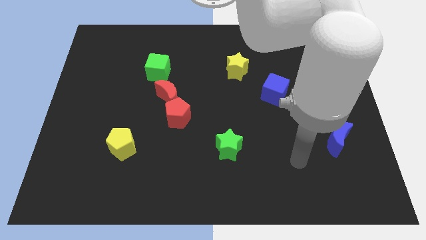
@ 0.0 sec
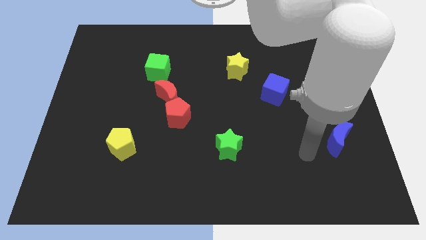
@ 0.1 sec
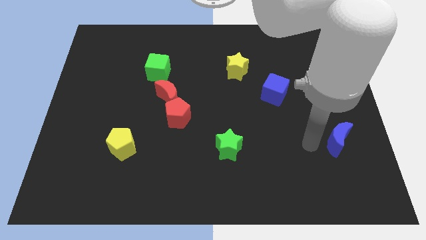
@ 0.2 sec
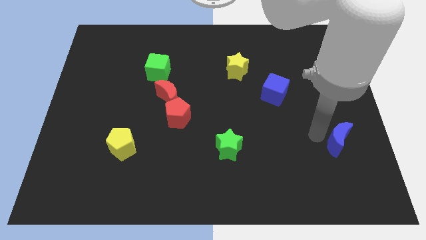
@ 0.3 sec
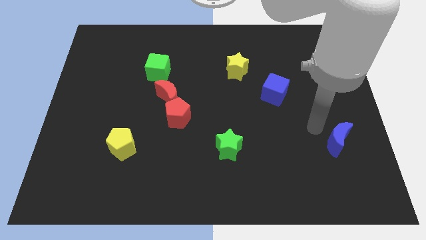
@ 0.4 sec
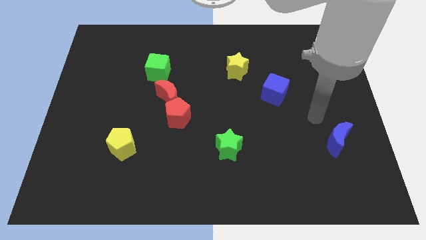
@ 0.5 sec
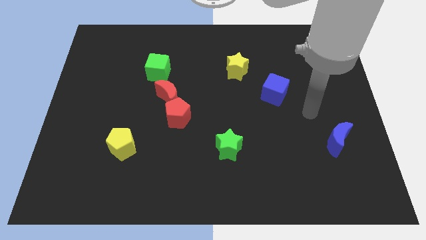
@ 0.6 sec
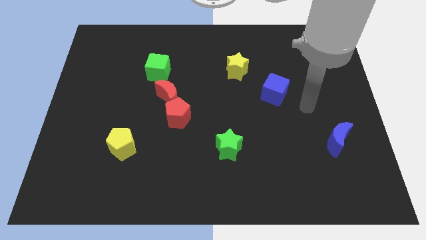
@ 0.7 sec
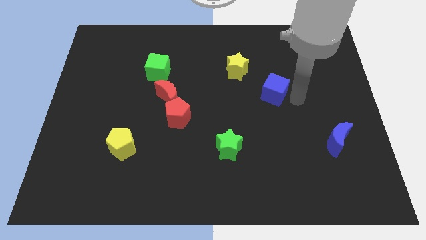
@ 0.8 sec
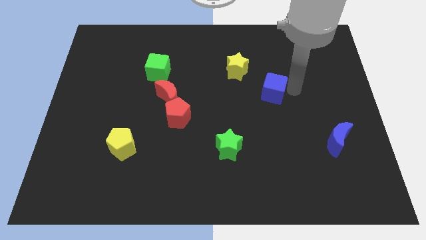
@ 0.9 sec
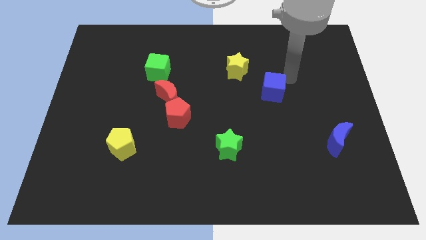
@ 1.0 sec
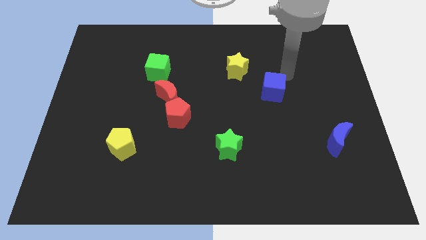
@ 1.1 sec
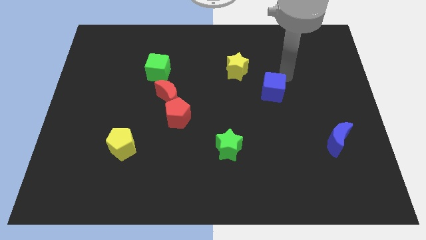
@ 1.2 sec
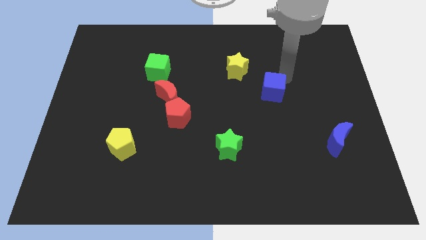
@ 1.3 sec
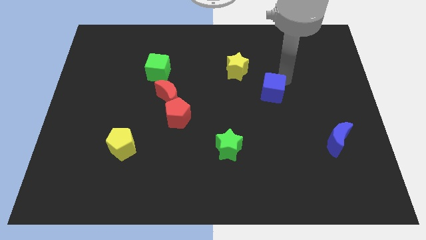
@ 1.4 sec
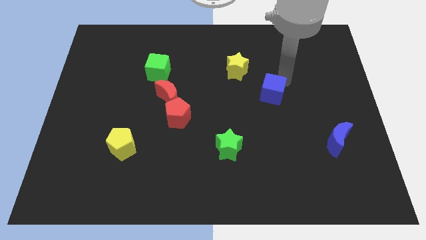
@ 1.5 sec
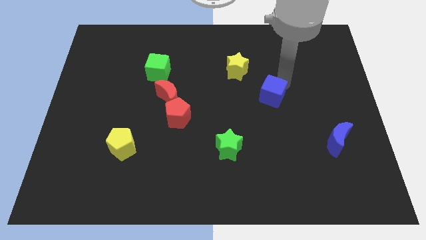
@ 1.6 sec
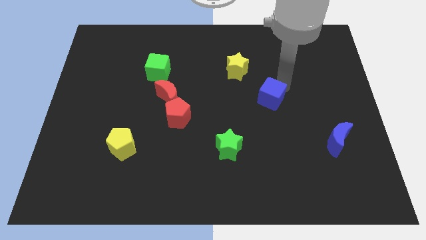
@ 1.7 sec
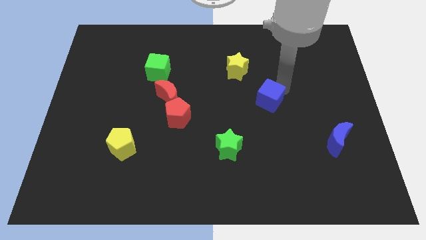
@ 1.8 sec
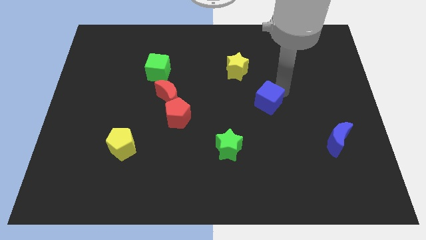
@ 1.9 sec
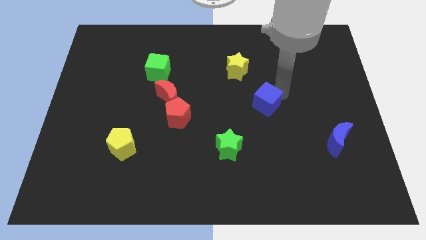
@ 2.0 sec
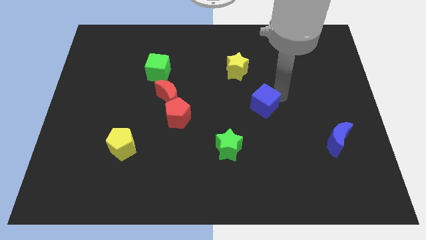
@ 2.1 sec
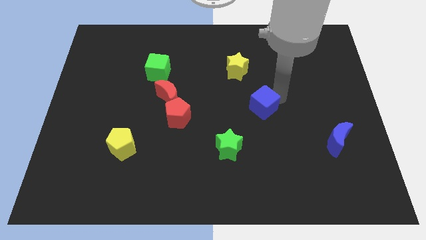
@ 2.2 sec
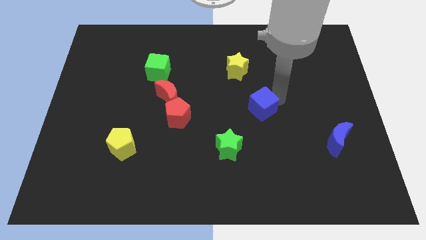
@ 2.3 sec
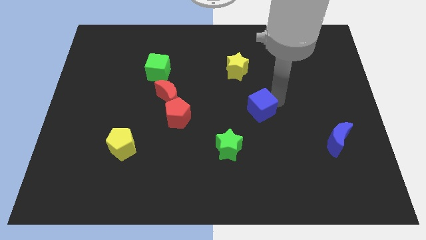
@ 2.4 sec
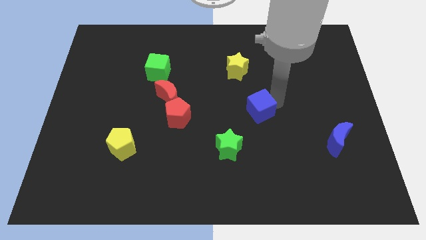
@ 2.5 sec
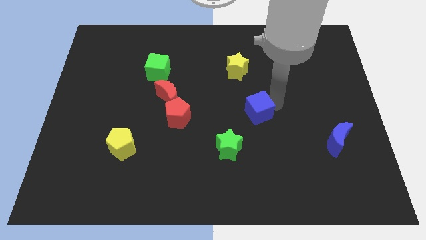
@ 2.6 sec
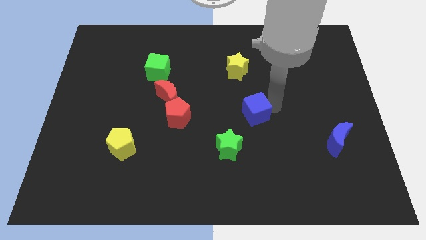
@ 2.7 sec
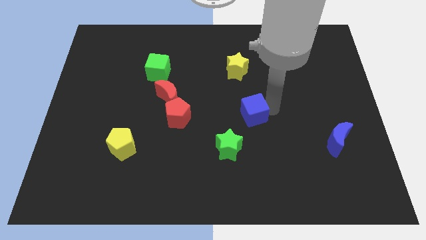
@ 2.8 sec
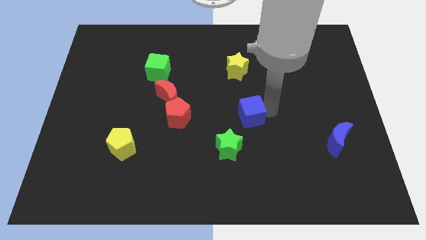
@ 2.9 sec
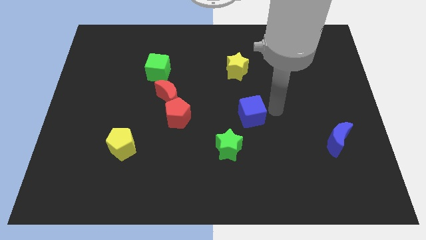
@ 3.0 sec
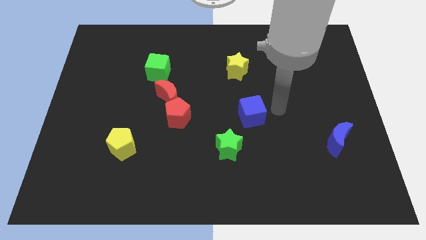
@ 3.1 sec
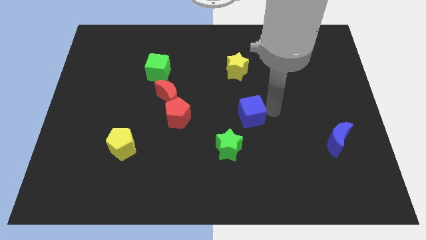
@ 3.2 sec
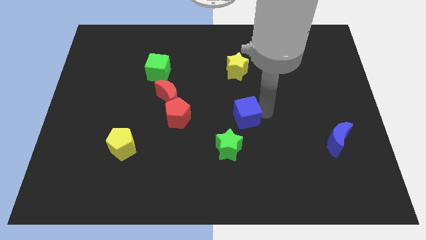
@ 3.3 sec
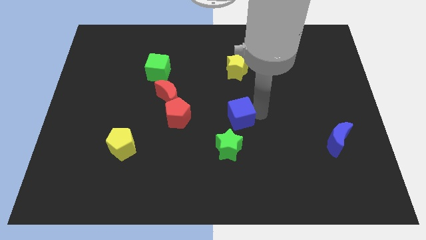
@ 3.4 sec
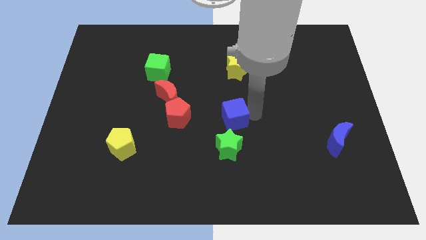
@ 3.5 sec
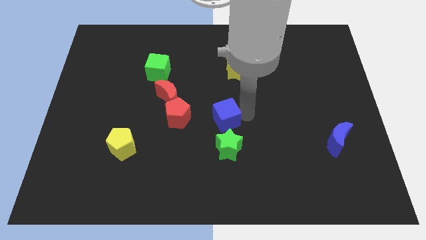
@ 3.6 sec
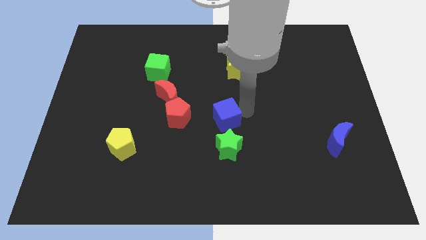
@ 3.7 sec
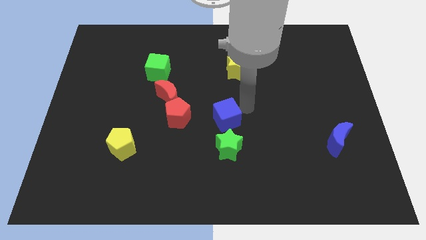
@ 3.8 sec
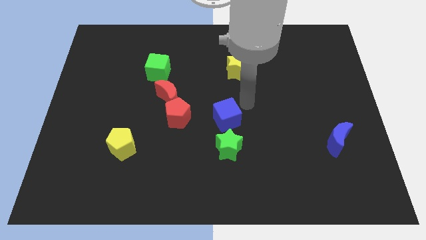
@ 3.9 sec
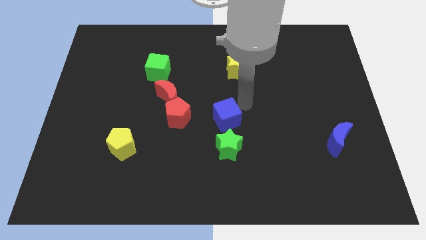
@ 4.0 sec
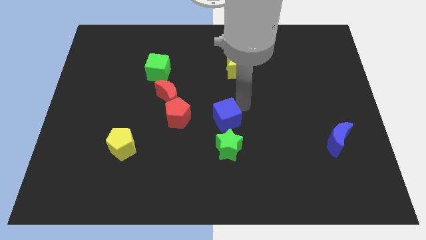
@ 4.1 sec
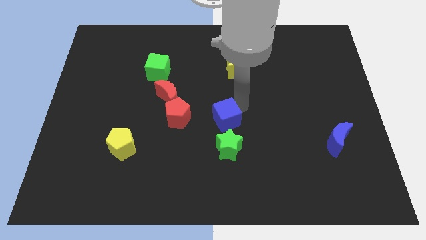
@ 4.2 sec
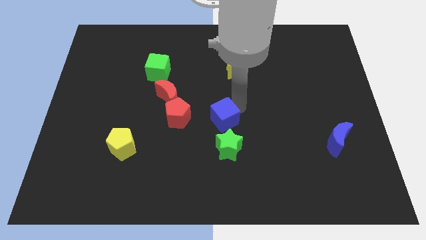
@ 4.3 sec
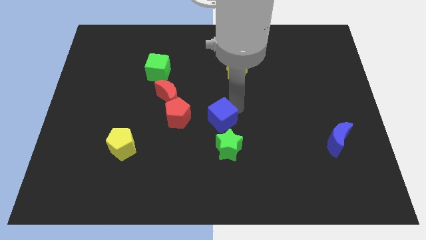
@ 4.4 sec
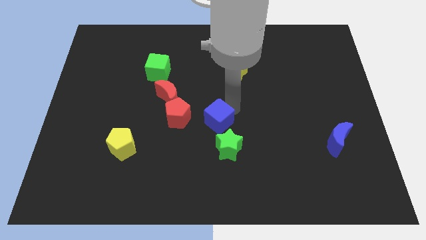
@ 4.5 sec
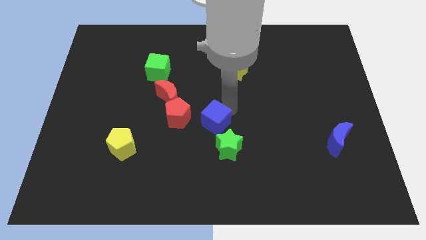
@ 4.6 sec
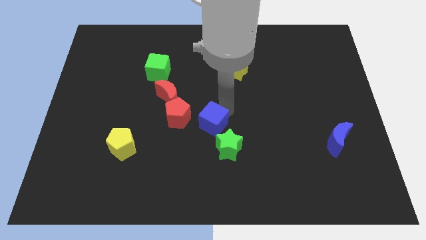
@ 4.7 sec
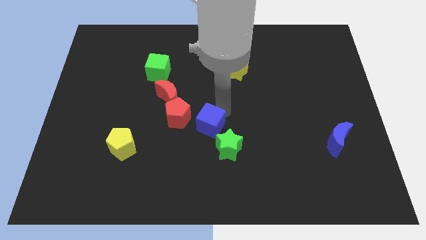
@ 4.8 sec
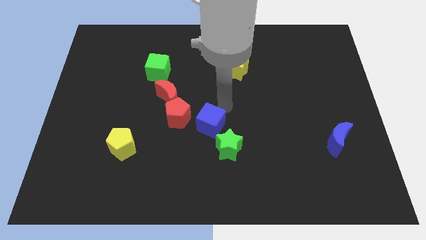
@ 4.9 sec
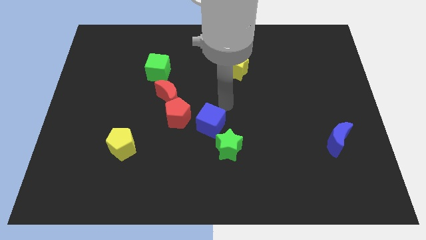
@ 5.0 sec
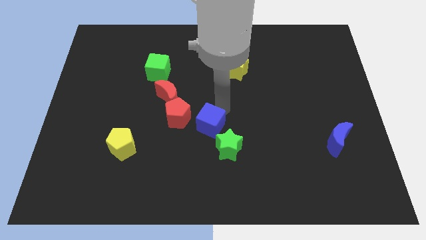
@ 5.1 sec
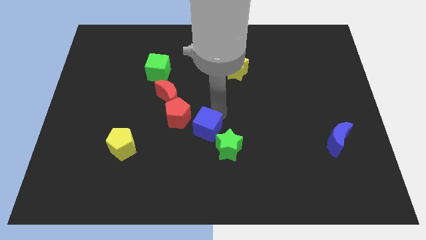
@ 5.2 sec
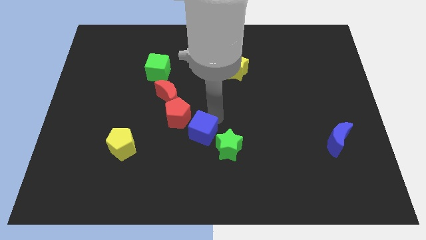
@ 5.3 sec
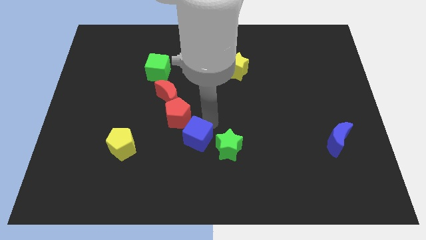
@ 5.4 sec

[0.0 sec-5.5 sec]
move the blue cube diagonally downwards and to the left

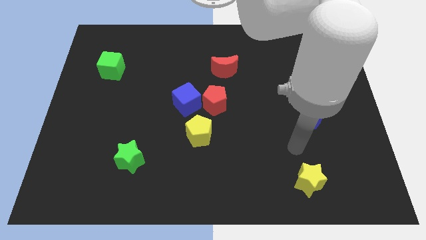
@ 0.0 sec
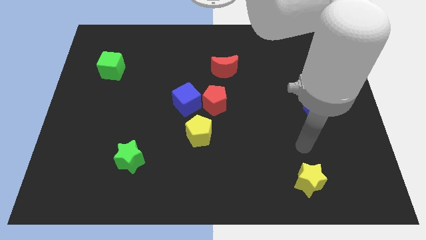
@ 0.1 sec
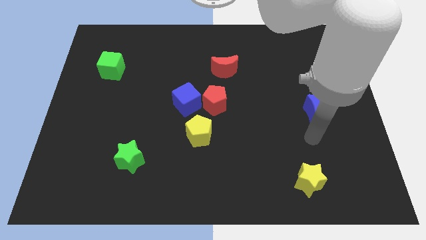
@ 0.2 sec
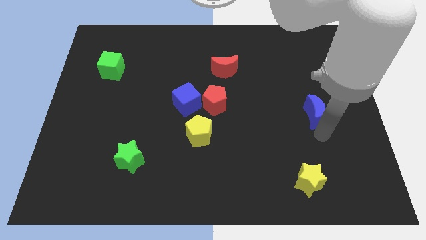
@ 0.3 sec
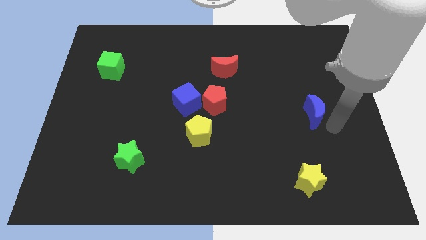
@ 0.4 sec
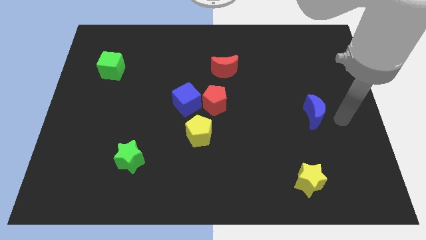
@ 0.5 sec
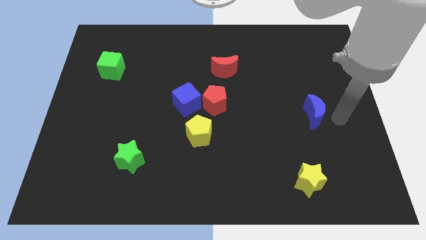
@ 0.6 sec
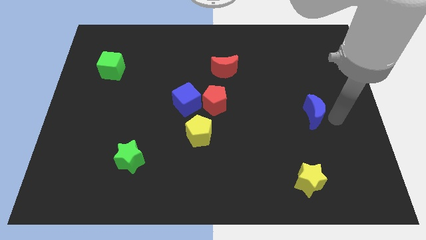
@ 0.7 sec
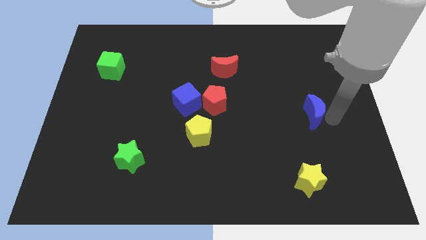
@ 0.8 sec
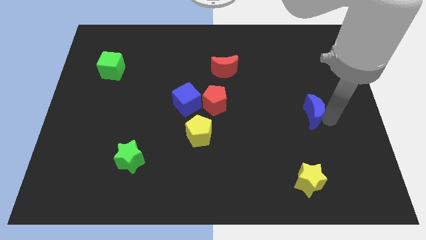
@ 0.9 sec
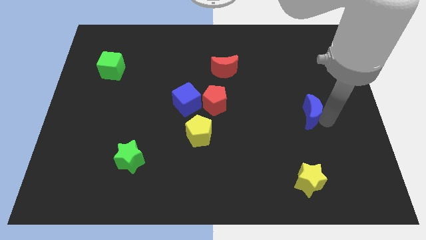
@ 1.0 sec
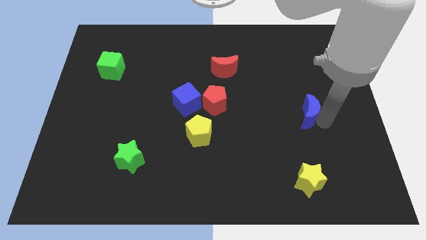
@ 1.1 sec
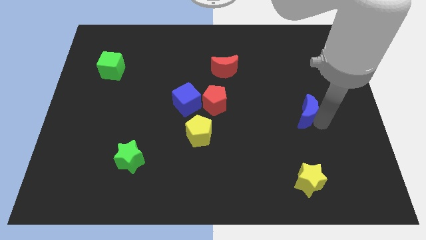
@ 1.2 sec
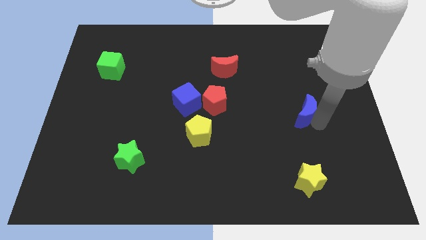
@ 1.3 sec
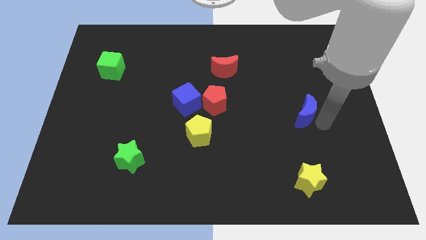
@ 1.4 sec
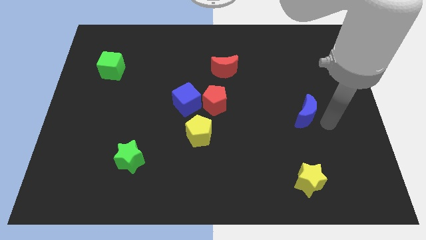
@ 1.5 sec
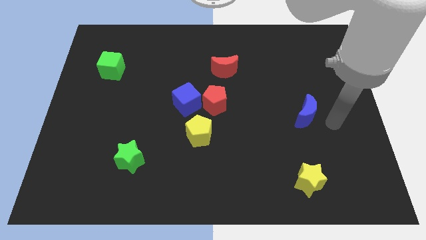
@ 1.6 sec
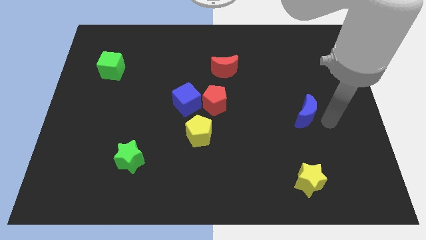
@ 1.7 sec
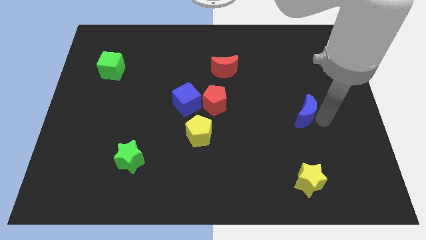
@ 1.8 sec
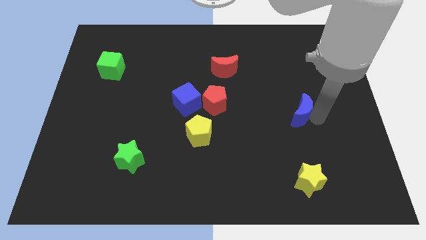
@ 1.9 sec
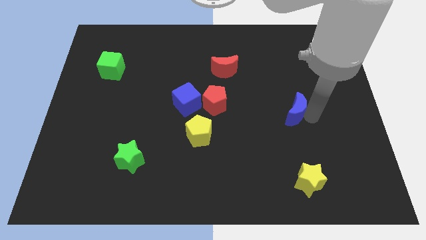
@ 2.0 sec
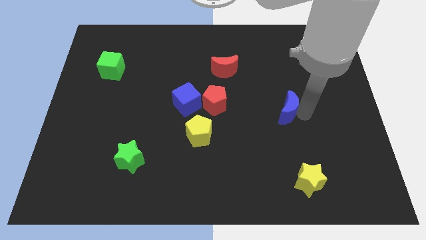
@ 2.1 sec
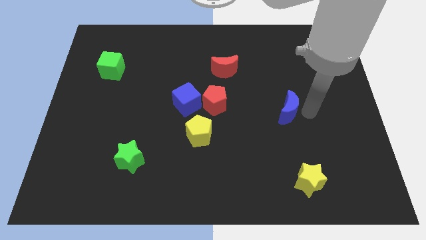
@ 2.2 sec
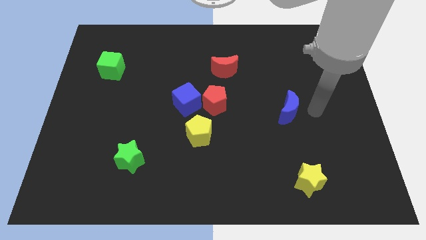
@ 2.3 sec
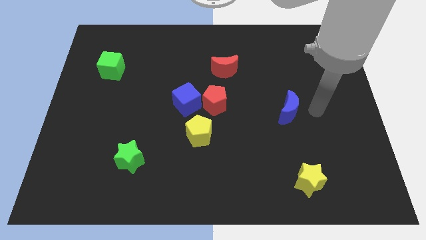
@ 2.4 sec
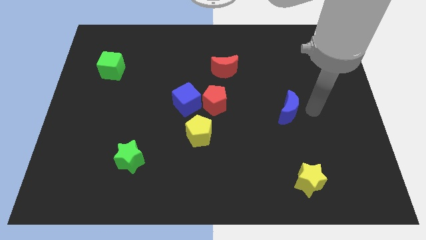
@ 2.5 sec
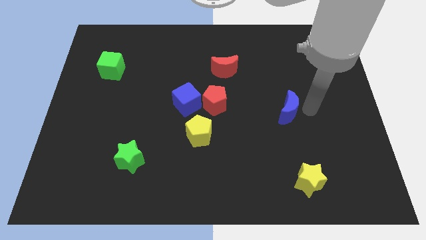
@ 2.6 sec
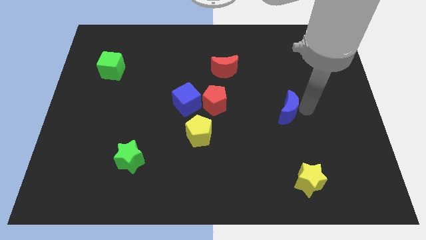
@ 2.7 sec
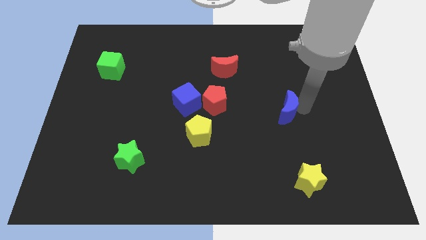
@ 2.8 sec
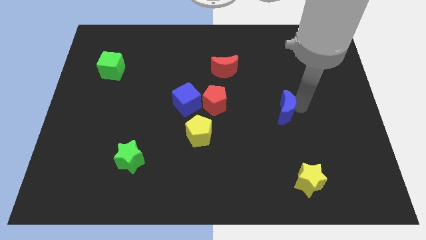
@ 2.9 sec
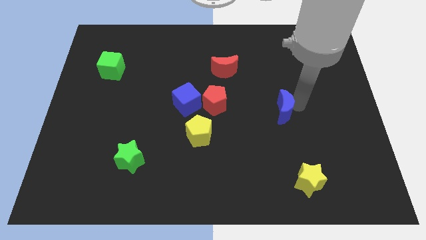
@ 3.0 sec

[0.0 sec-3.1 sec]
move the blue moon somewhat to the left
